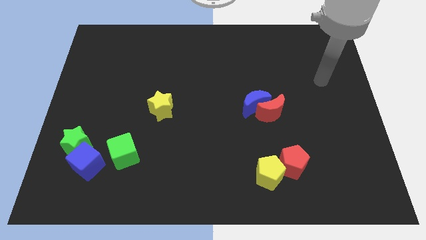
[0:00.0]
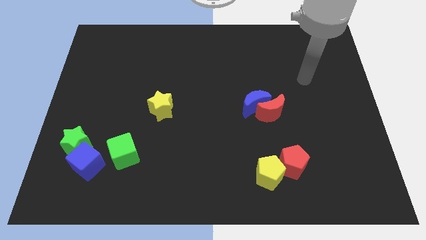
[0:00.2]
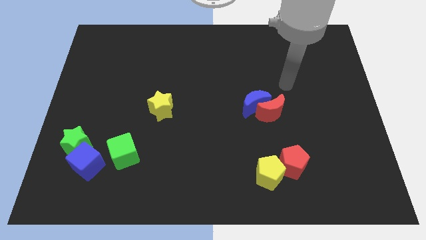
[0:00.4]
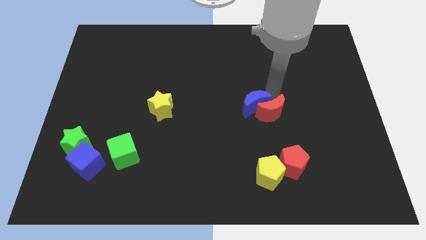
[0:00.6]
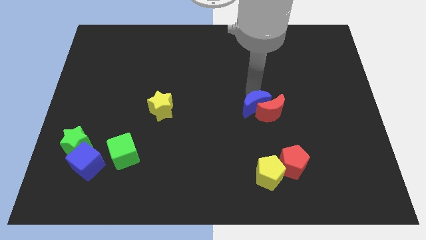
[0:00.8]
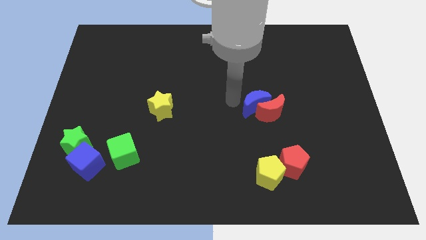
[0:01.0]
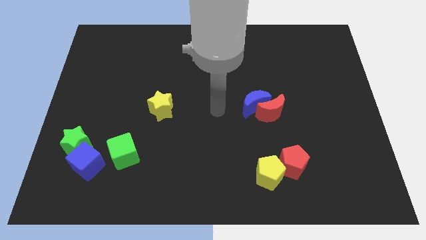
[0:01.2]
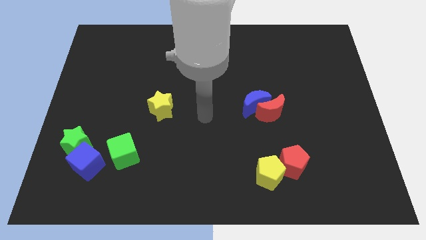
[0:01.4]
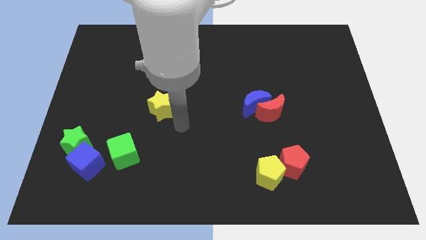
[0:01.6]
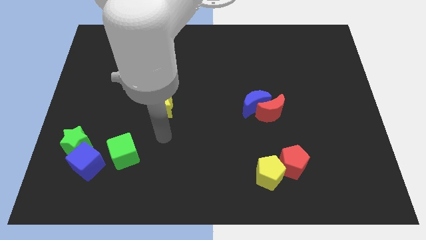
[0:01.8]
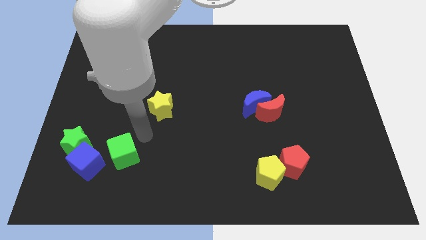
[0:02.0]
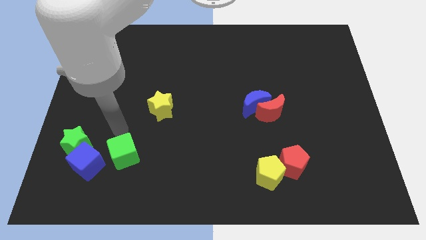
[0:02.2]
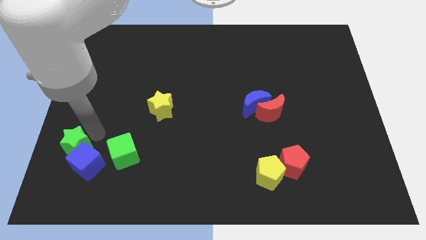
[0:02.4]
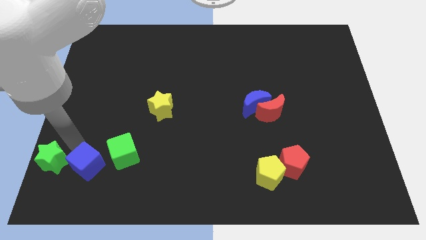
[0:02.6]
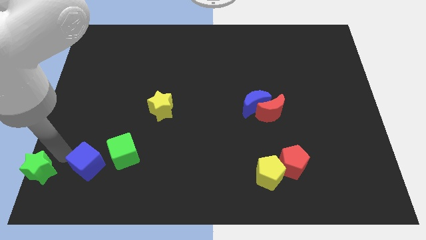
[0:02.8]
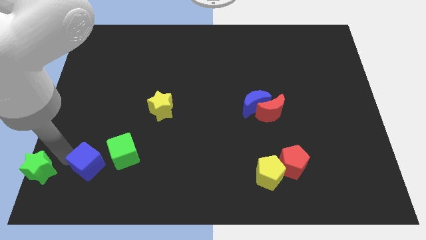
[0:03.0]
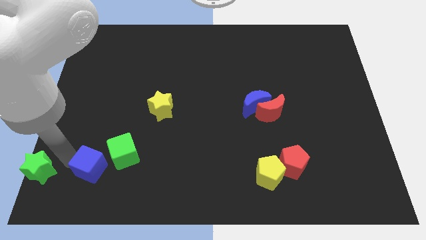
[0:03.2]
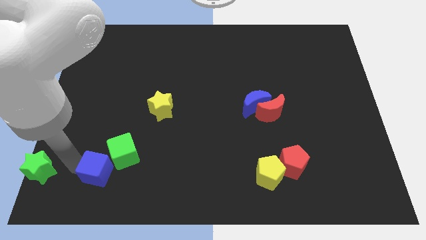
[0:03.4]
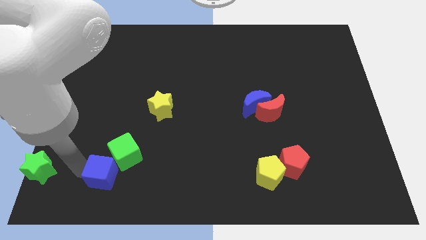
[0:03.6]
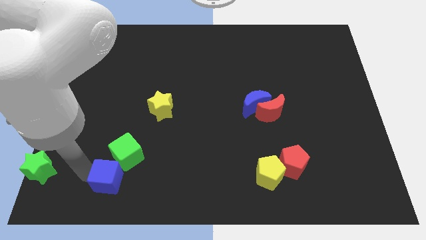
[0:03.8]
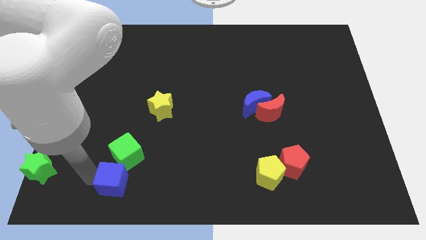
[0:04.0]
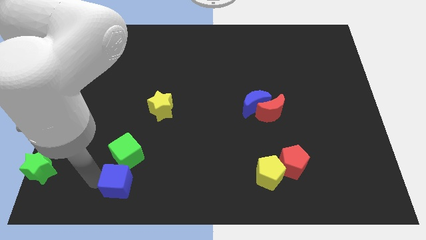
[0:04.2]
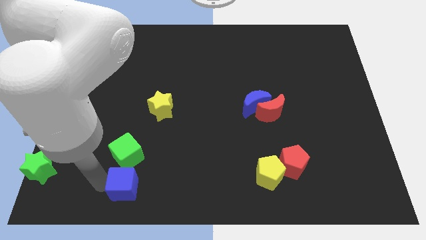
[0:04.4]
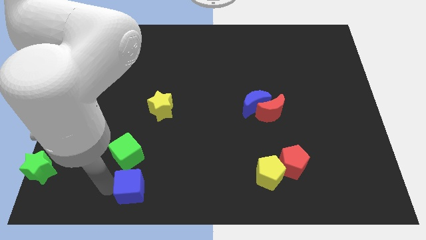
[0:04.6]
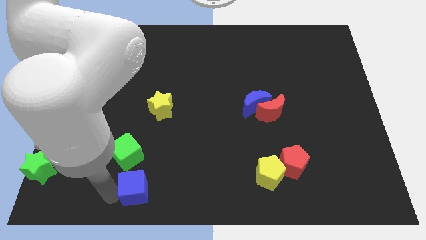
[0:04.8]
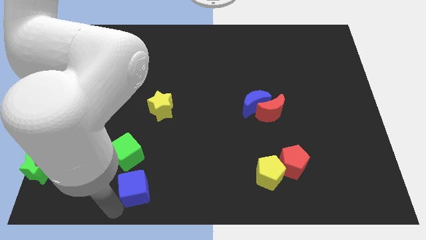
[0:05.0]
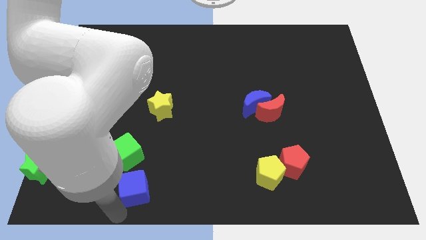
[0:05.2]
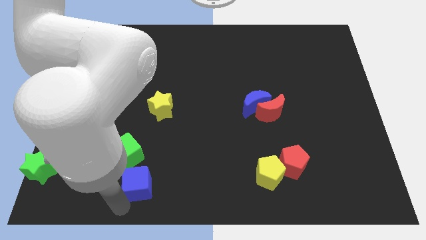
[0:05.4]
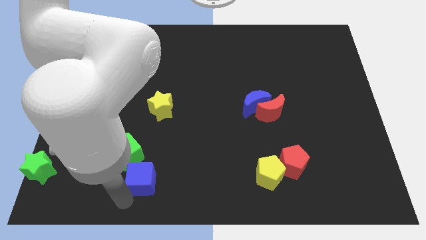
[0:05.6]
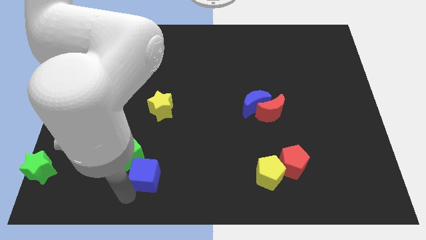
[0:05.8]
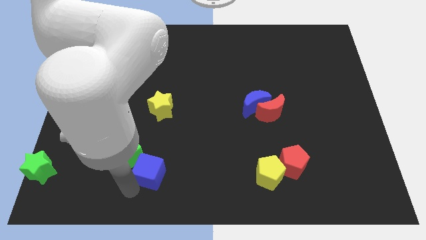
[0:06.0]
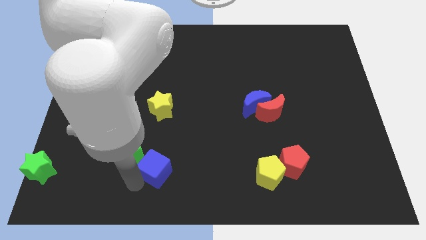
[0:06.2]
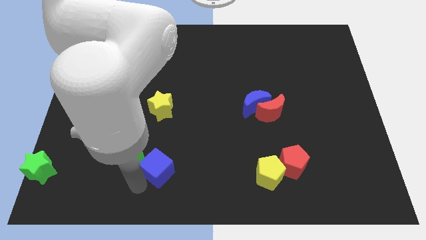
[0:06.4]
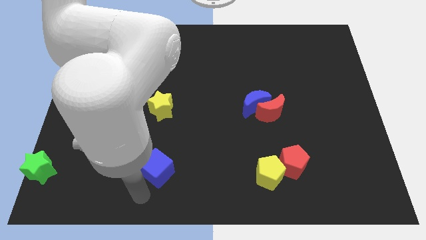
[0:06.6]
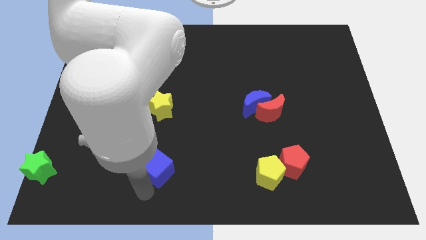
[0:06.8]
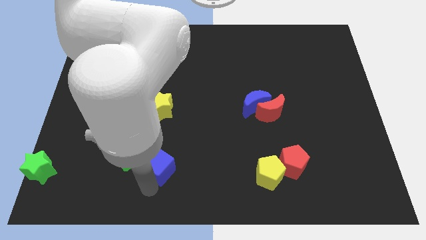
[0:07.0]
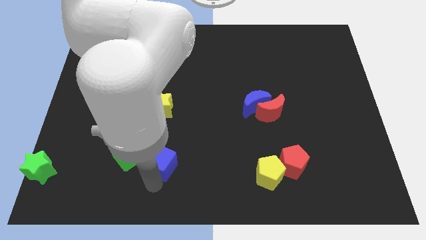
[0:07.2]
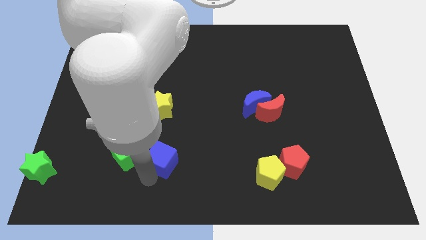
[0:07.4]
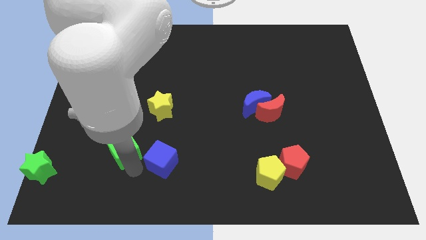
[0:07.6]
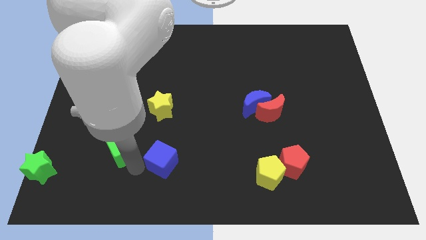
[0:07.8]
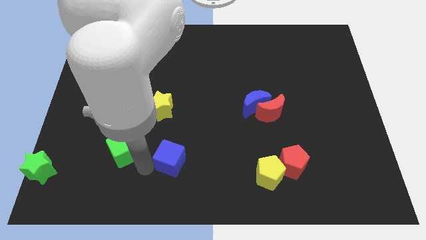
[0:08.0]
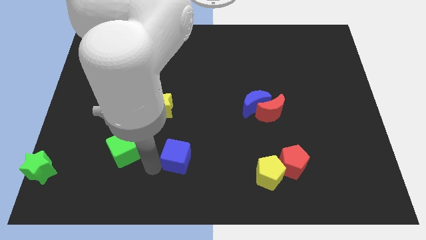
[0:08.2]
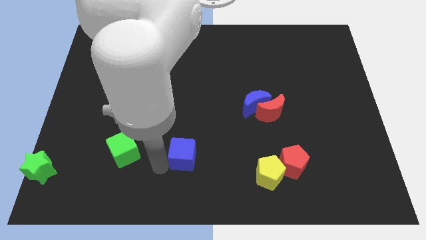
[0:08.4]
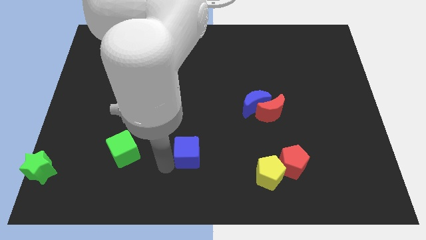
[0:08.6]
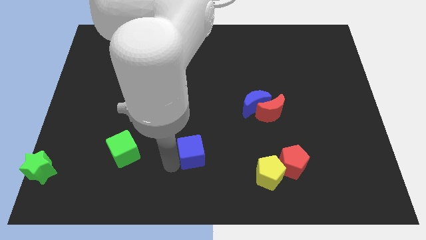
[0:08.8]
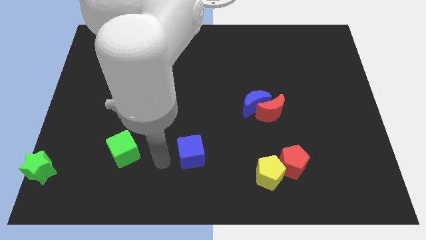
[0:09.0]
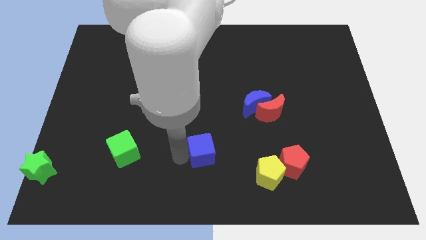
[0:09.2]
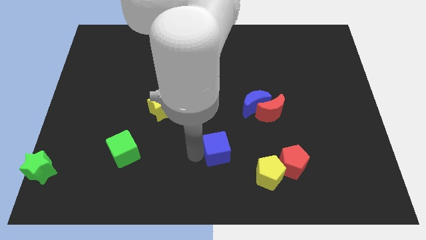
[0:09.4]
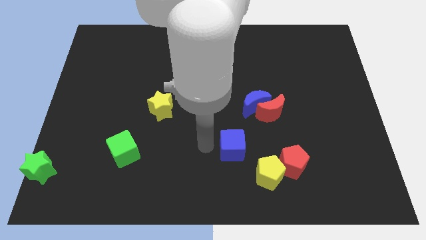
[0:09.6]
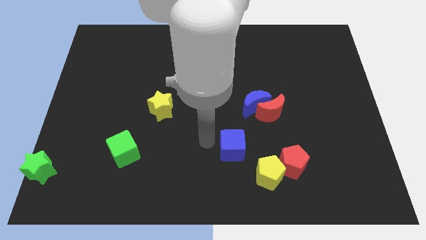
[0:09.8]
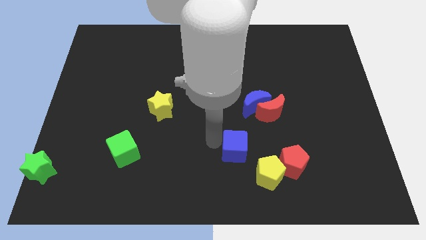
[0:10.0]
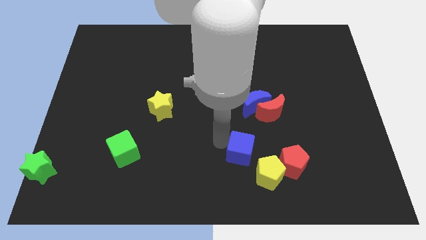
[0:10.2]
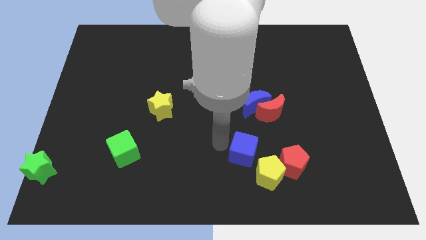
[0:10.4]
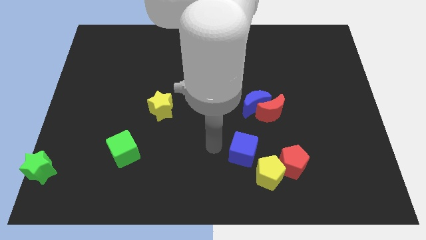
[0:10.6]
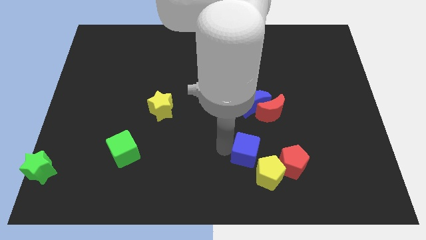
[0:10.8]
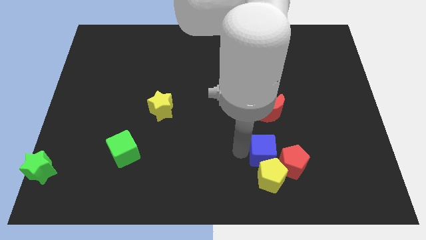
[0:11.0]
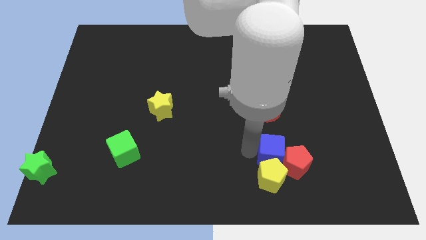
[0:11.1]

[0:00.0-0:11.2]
move the blue cube towards the red pentagon

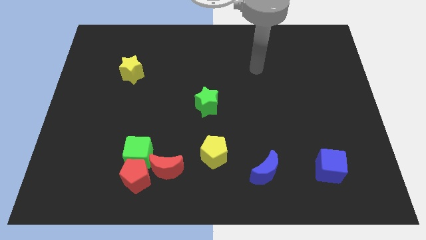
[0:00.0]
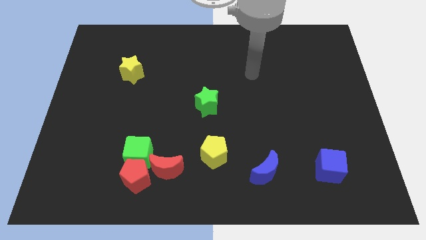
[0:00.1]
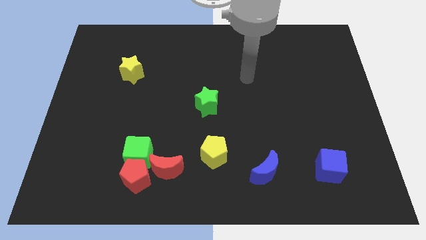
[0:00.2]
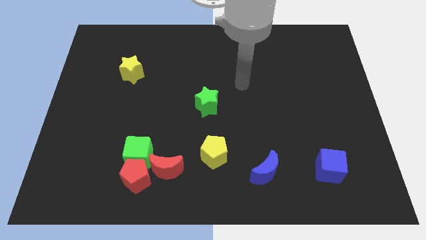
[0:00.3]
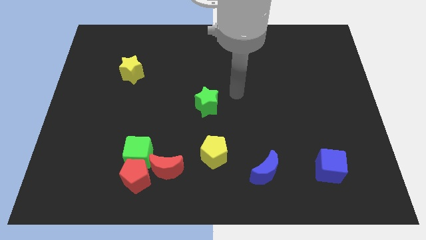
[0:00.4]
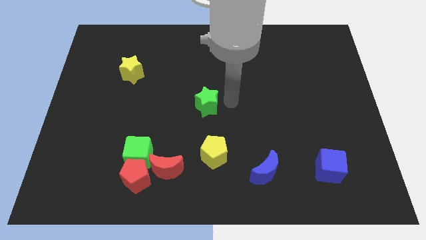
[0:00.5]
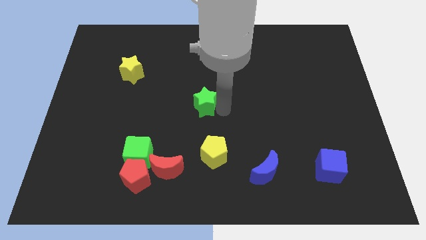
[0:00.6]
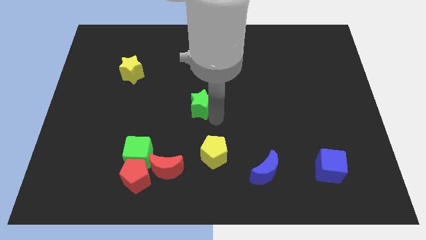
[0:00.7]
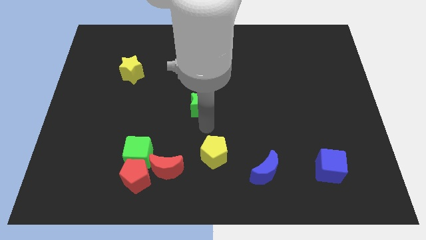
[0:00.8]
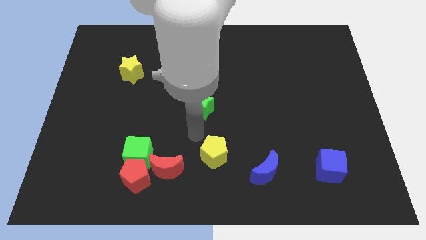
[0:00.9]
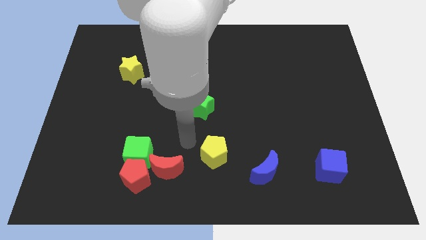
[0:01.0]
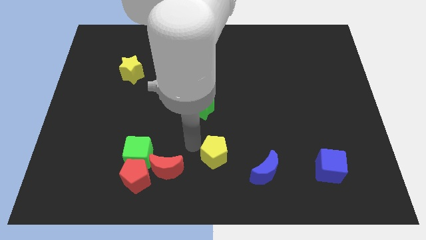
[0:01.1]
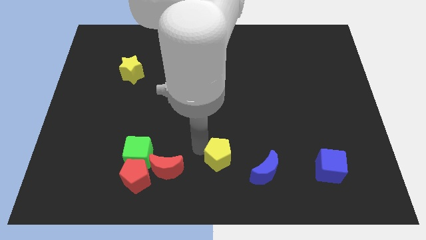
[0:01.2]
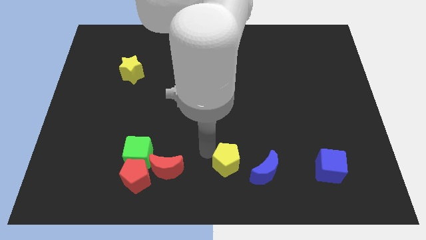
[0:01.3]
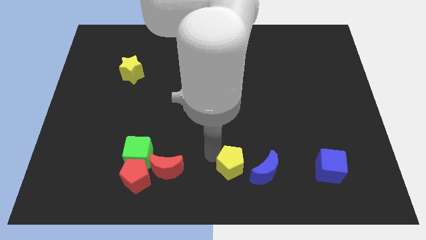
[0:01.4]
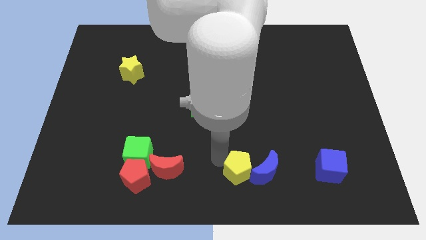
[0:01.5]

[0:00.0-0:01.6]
put the yellow pentagon next to the blue moon

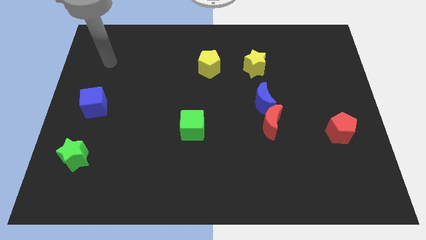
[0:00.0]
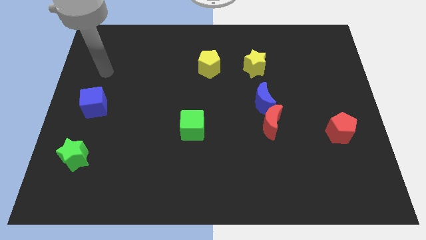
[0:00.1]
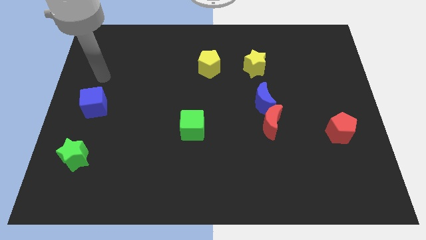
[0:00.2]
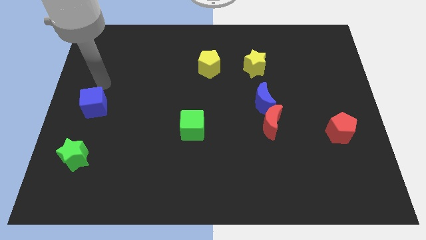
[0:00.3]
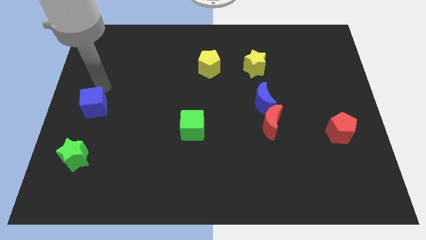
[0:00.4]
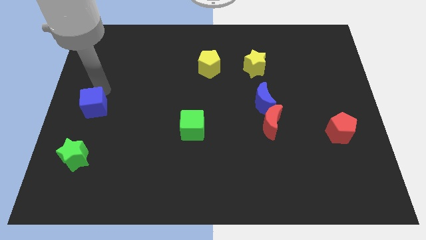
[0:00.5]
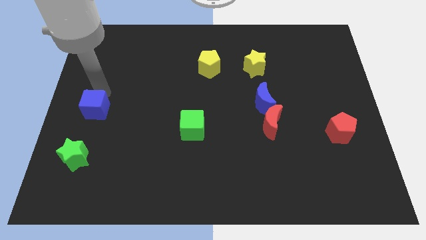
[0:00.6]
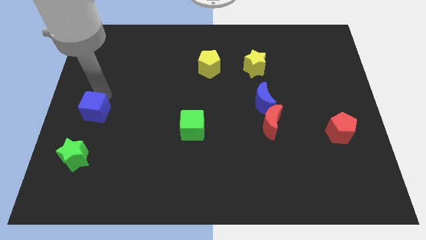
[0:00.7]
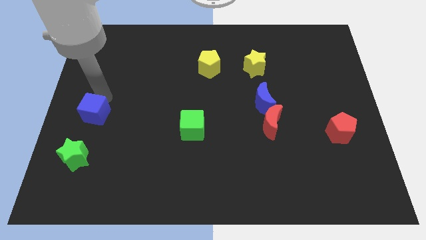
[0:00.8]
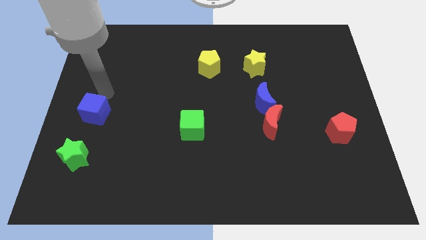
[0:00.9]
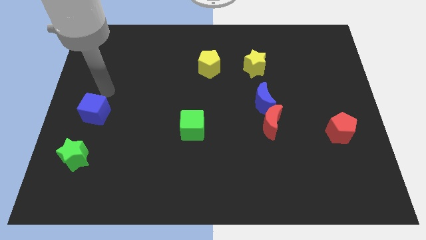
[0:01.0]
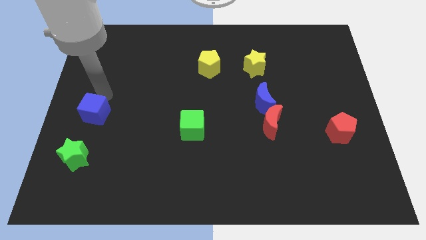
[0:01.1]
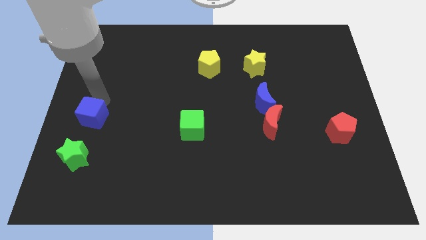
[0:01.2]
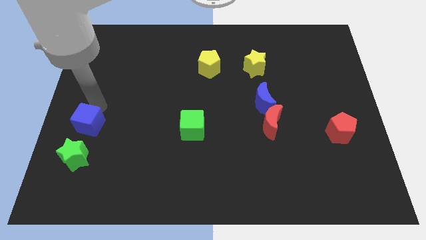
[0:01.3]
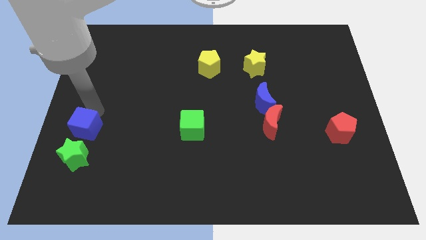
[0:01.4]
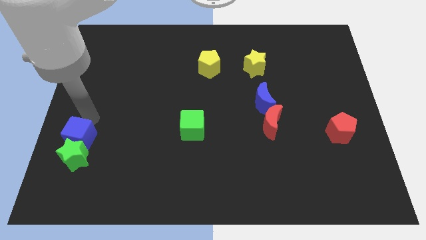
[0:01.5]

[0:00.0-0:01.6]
move the blue cube close to the green star
